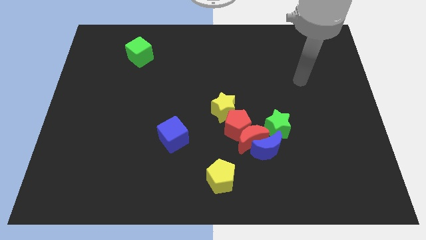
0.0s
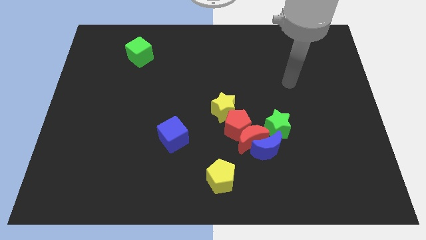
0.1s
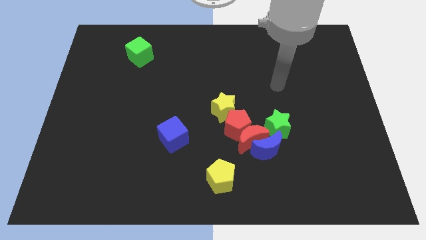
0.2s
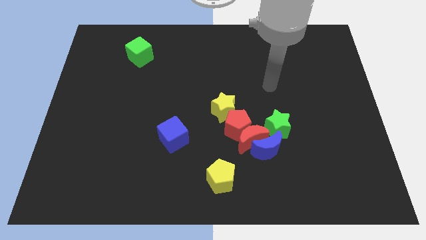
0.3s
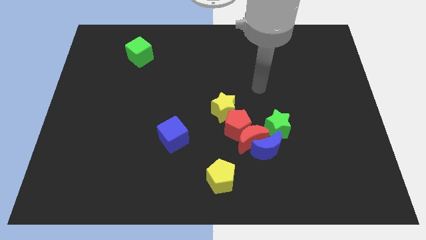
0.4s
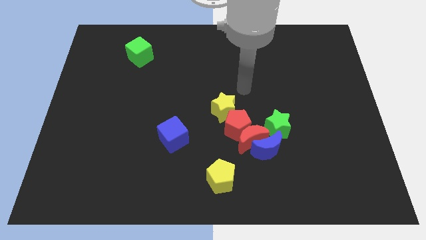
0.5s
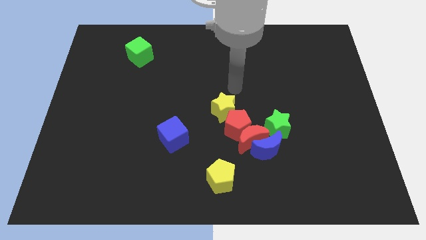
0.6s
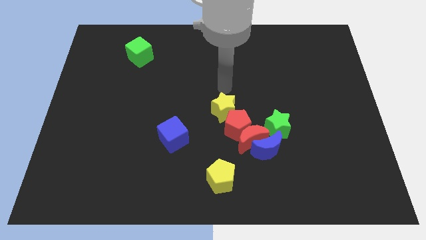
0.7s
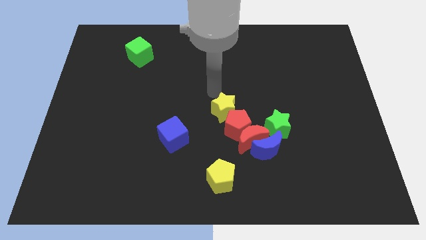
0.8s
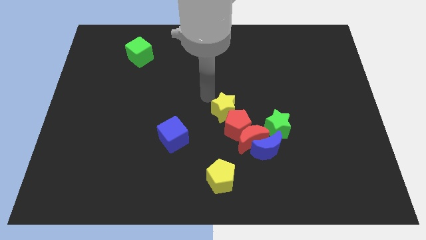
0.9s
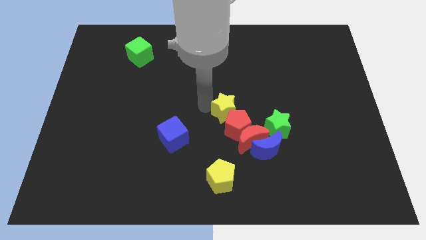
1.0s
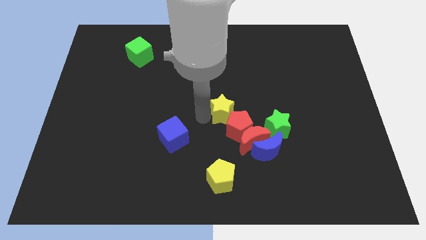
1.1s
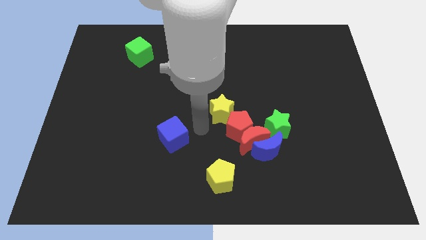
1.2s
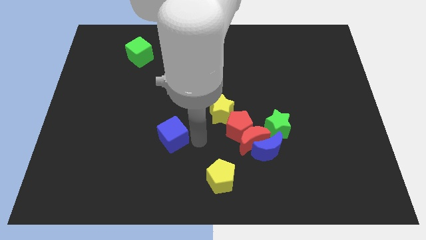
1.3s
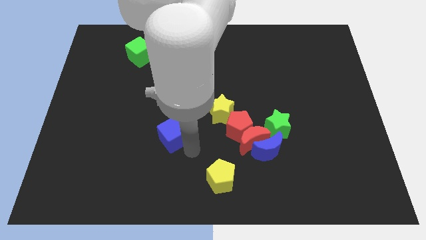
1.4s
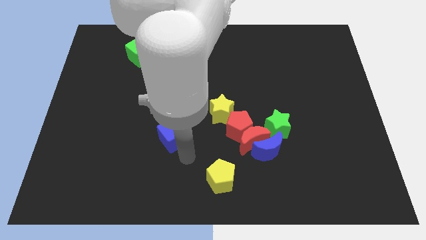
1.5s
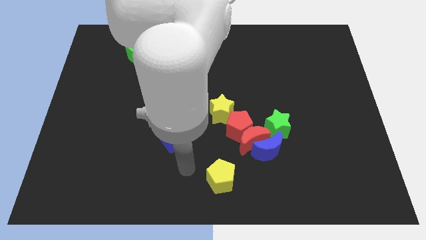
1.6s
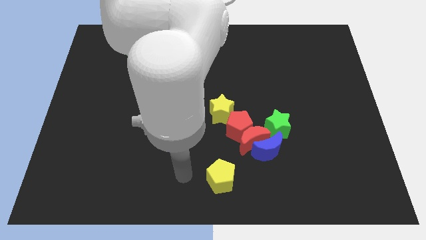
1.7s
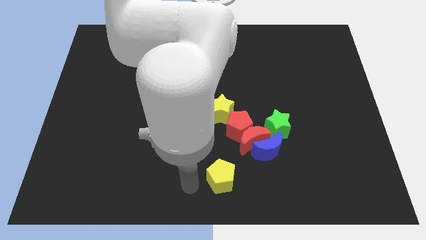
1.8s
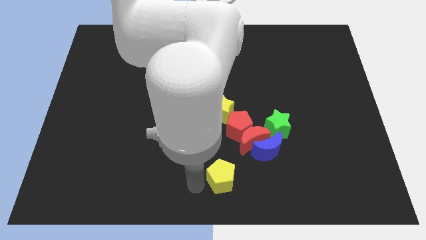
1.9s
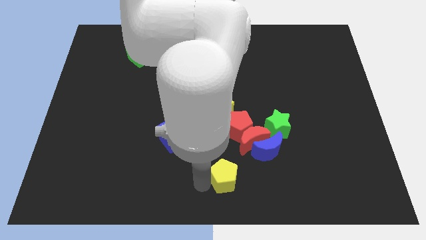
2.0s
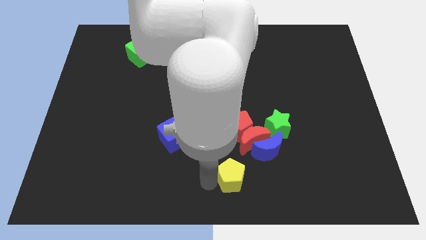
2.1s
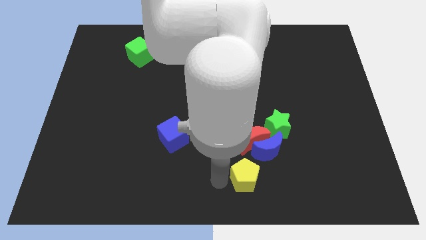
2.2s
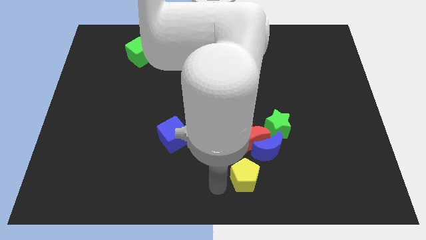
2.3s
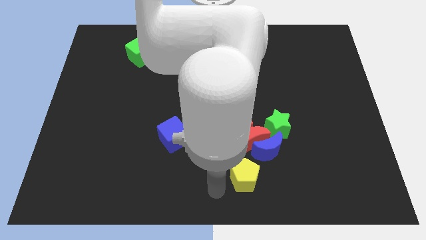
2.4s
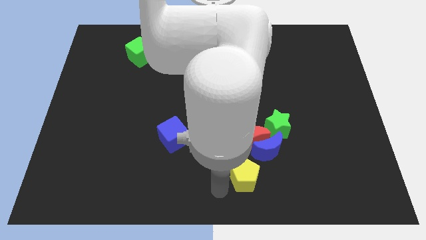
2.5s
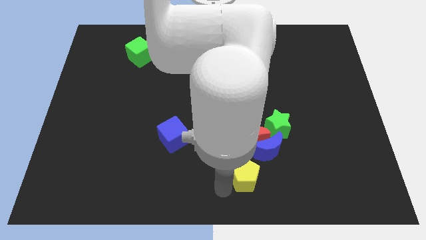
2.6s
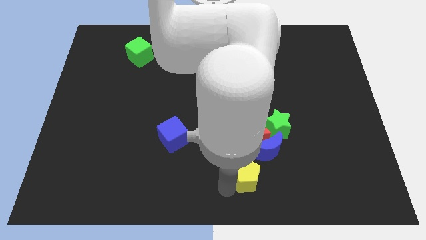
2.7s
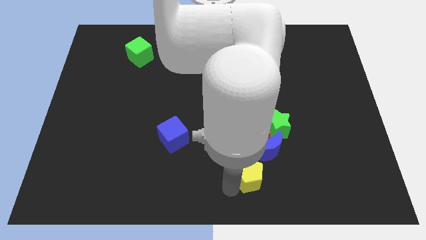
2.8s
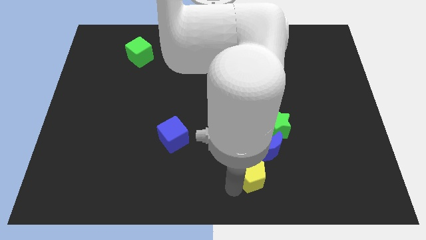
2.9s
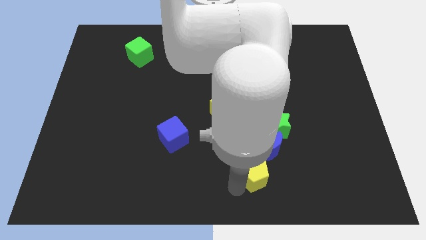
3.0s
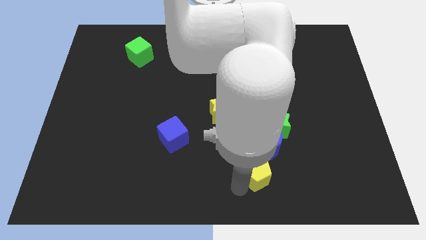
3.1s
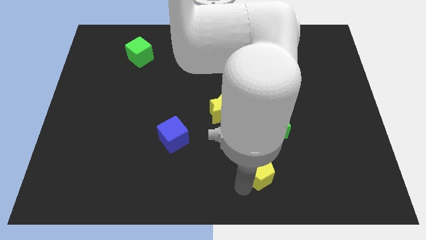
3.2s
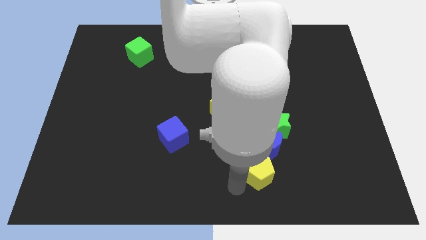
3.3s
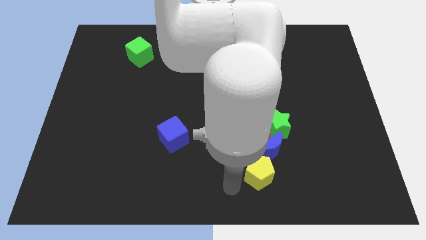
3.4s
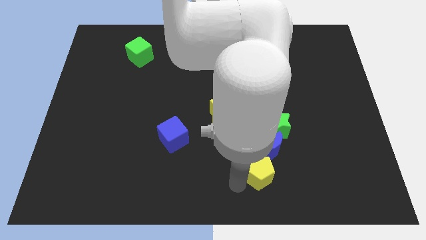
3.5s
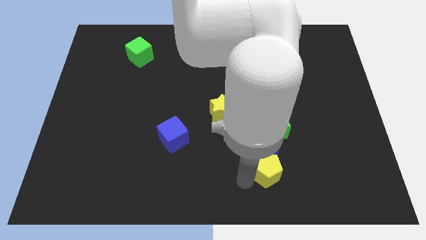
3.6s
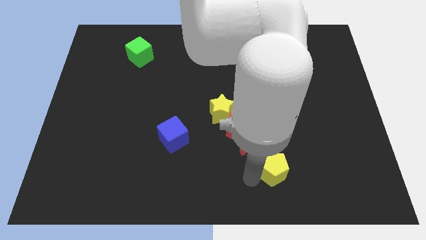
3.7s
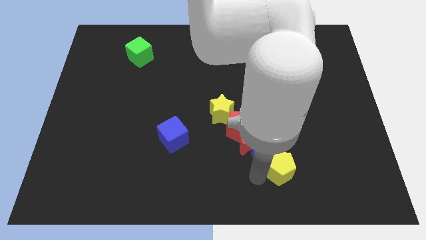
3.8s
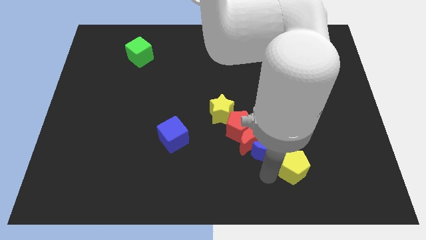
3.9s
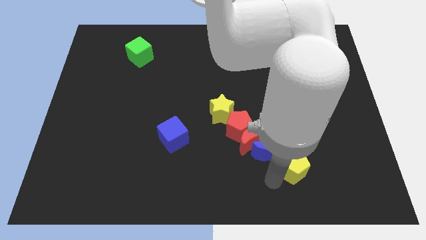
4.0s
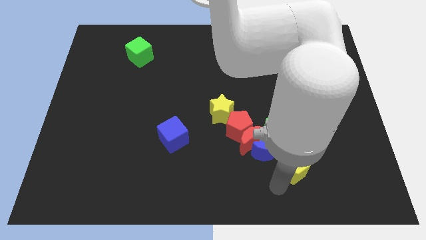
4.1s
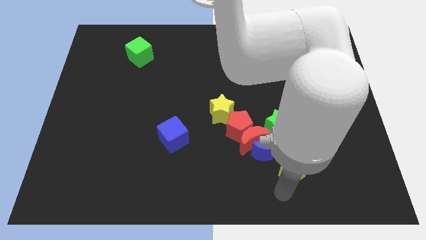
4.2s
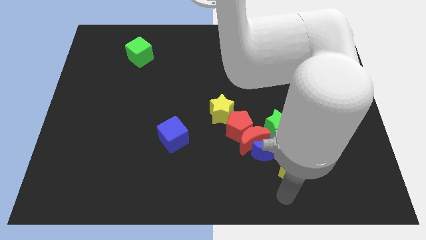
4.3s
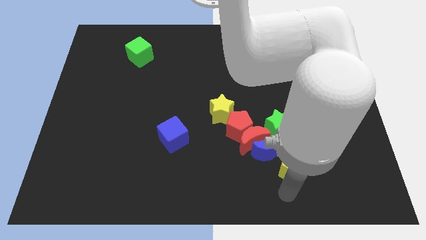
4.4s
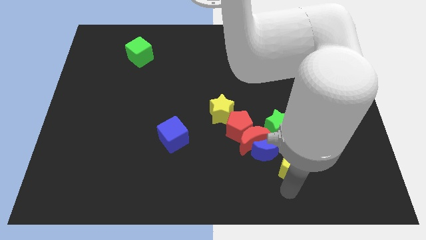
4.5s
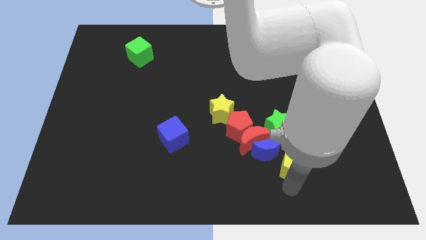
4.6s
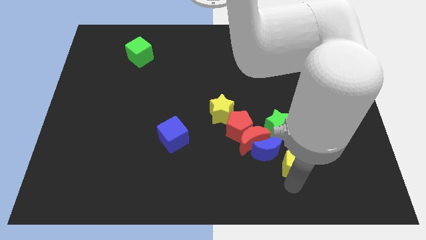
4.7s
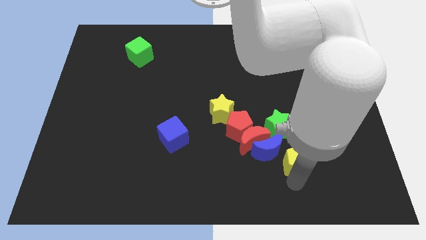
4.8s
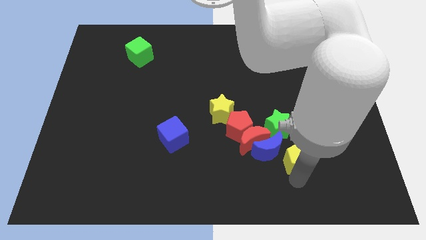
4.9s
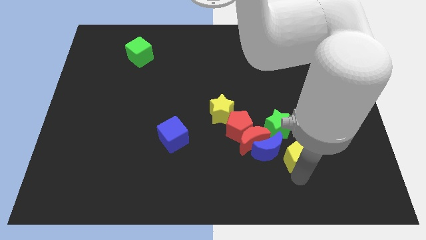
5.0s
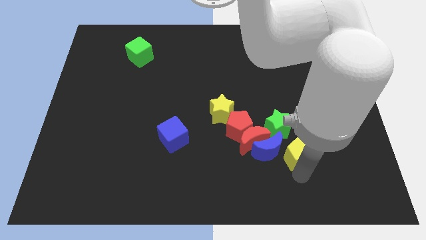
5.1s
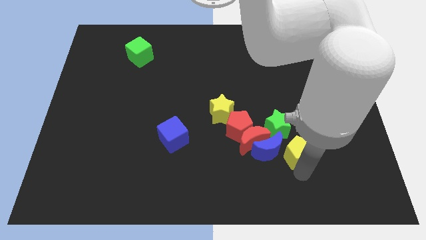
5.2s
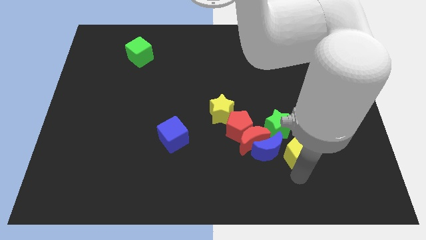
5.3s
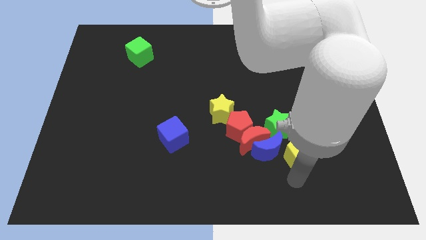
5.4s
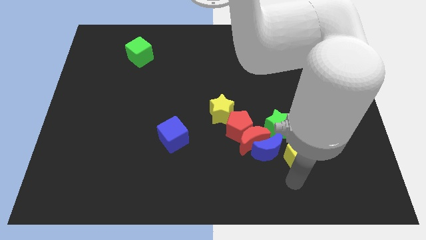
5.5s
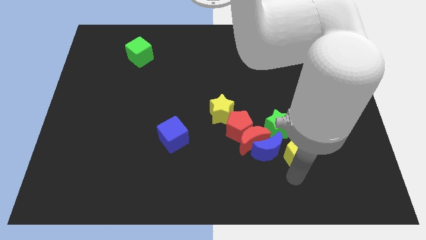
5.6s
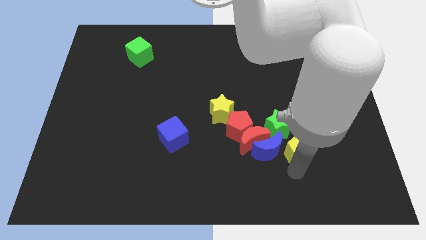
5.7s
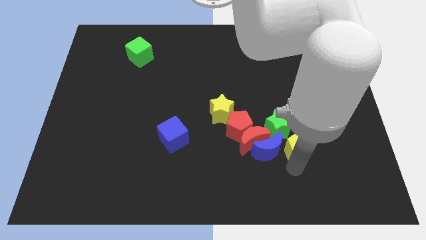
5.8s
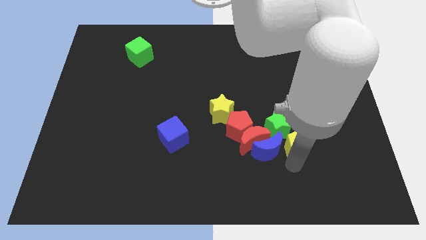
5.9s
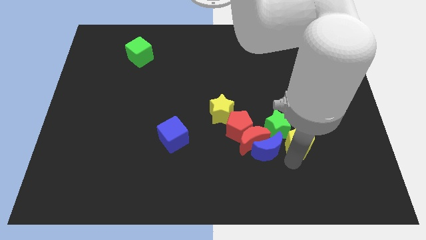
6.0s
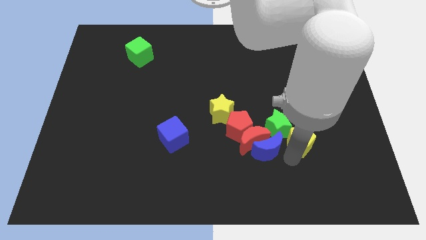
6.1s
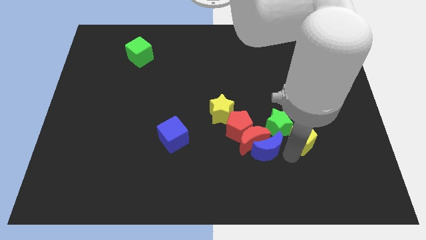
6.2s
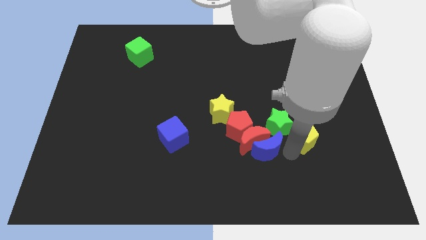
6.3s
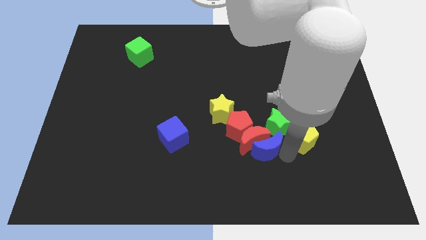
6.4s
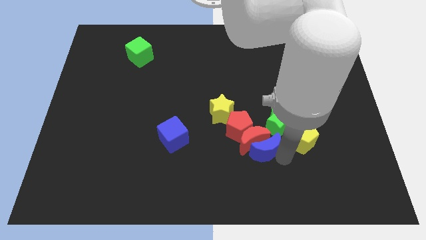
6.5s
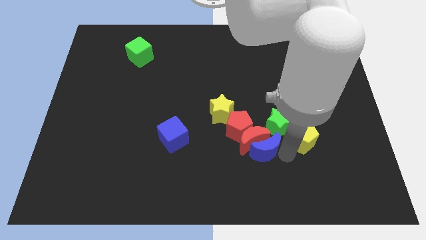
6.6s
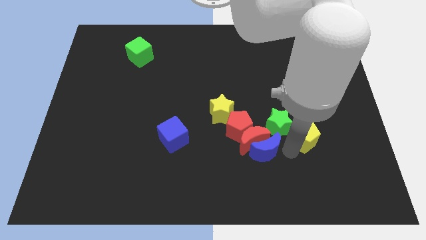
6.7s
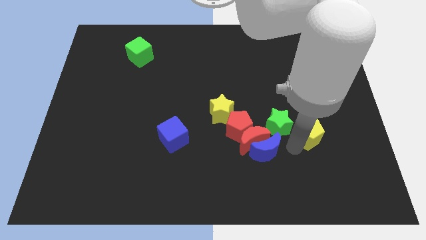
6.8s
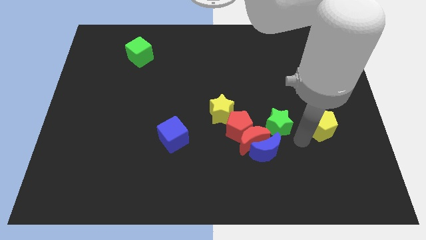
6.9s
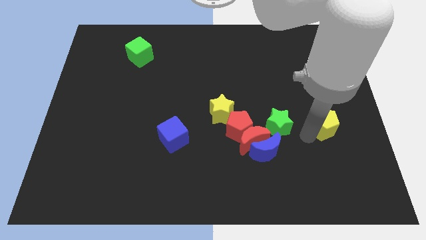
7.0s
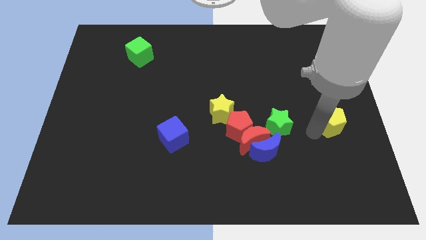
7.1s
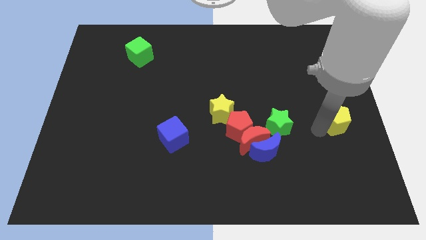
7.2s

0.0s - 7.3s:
put the yellow pentagon to the right side
